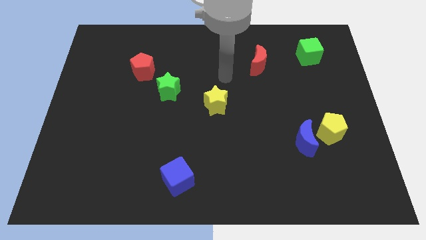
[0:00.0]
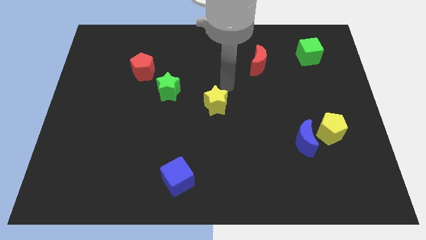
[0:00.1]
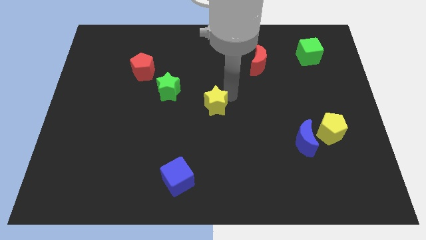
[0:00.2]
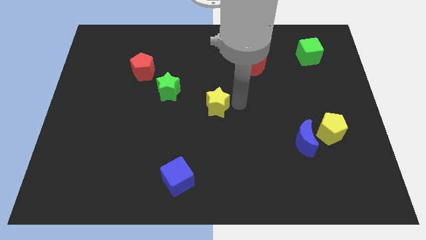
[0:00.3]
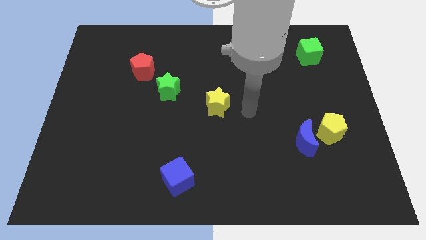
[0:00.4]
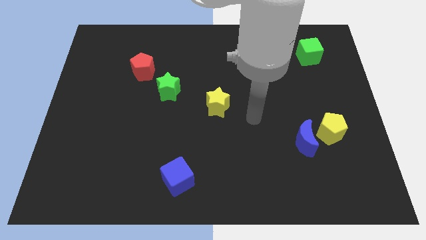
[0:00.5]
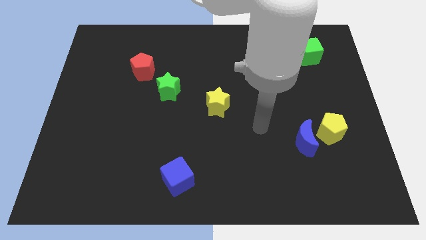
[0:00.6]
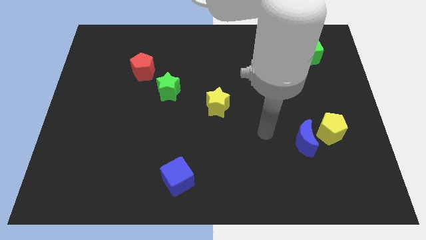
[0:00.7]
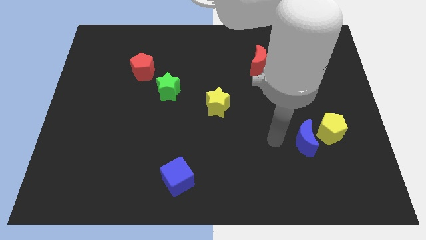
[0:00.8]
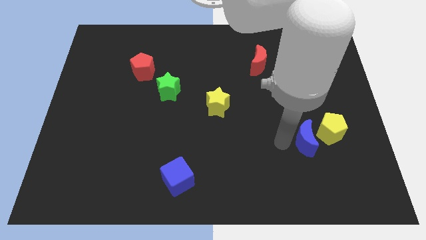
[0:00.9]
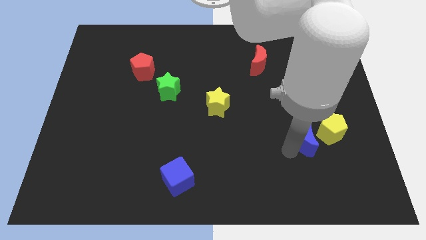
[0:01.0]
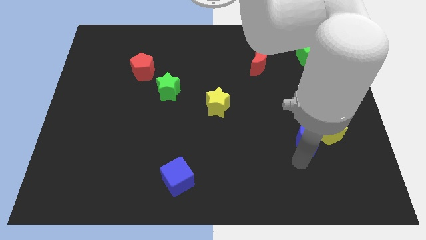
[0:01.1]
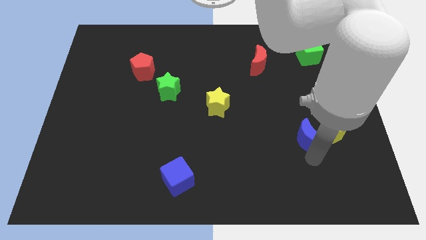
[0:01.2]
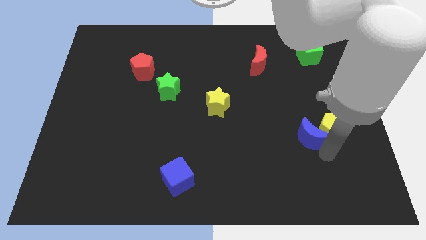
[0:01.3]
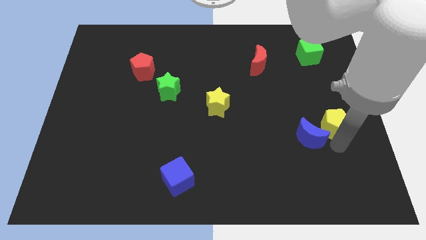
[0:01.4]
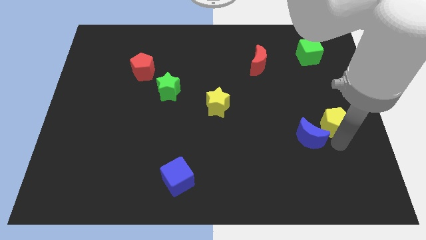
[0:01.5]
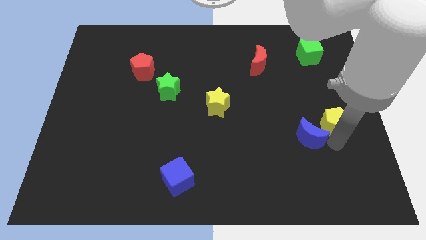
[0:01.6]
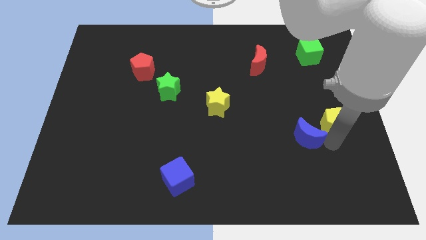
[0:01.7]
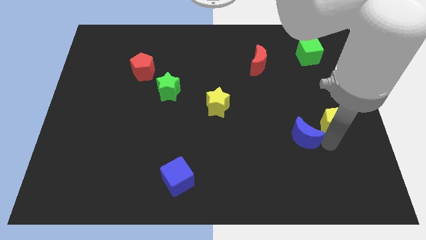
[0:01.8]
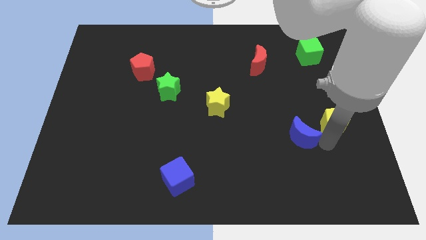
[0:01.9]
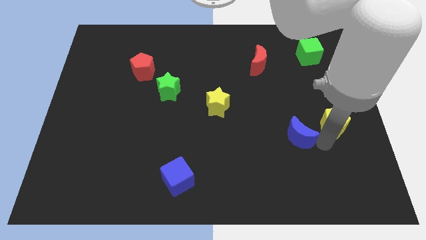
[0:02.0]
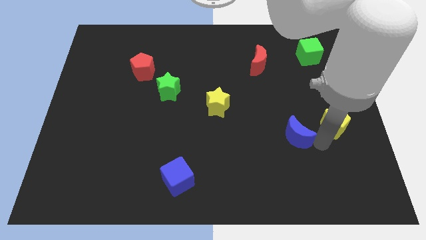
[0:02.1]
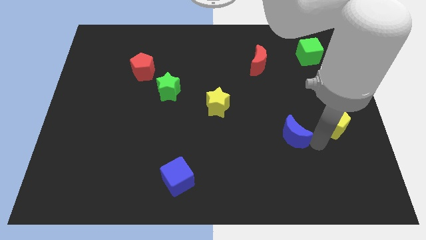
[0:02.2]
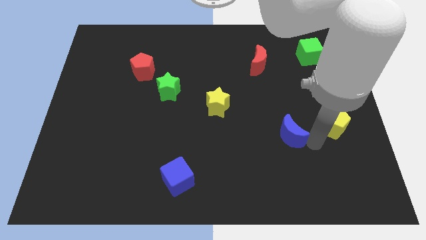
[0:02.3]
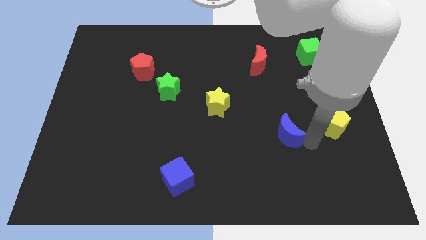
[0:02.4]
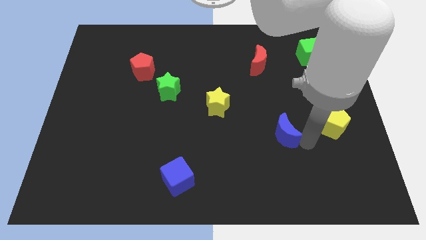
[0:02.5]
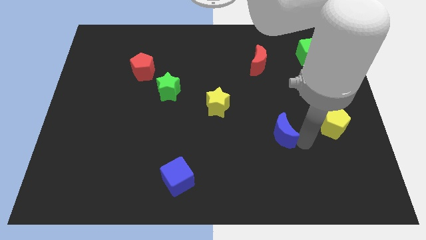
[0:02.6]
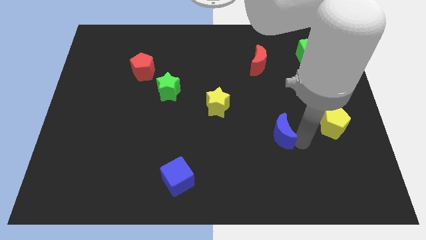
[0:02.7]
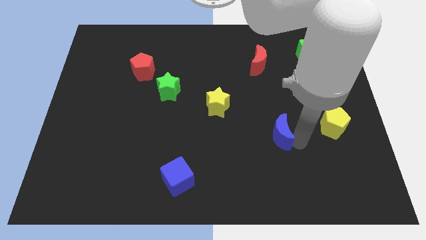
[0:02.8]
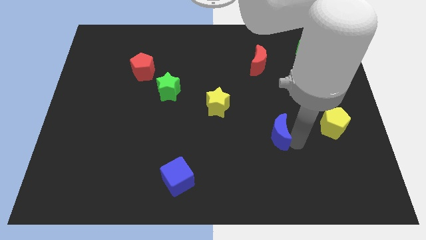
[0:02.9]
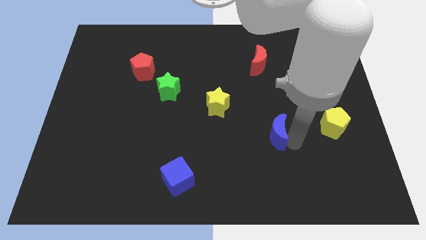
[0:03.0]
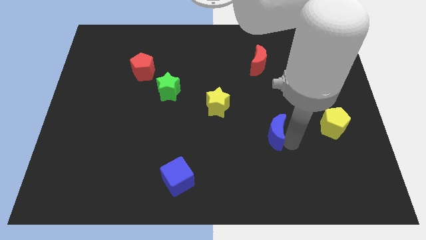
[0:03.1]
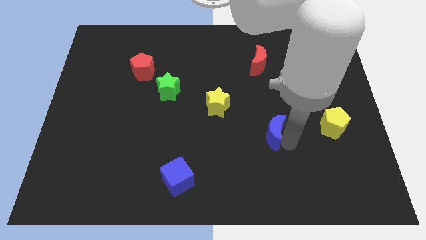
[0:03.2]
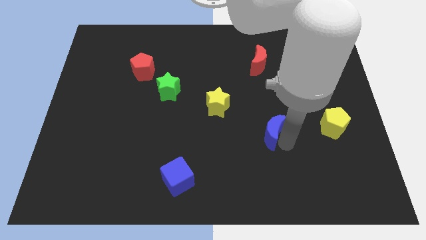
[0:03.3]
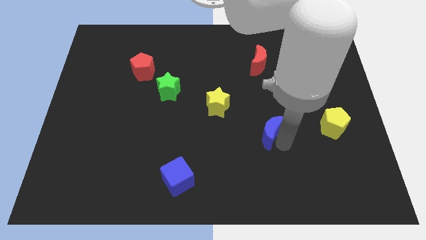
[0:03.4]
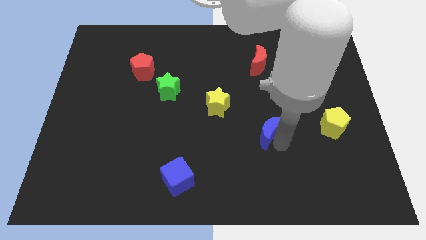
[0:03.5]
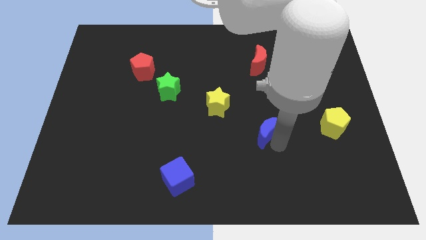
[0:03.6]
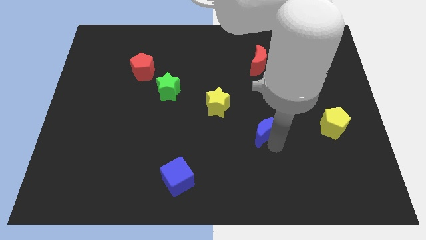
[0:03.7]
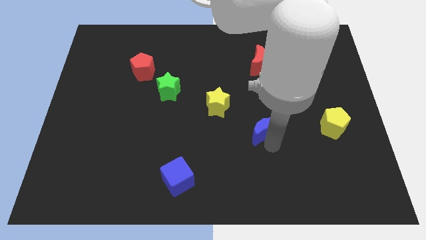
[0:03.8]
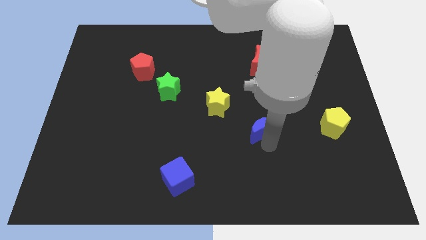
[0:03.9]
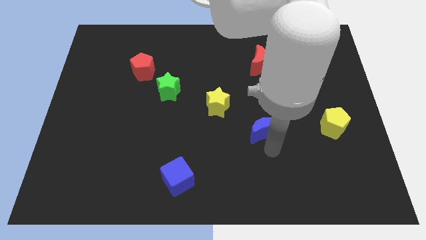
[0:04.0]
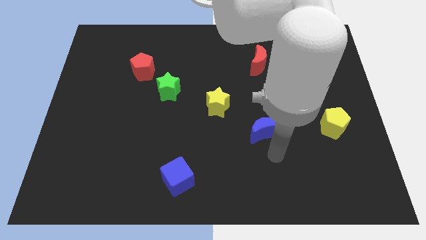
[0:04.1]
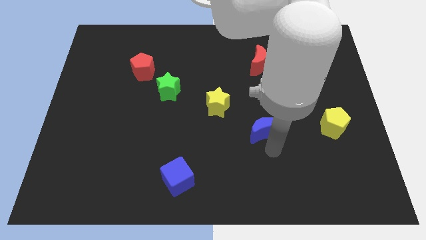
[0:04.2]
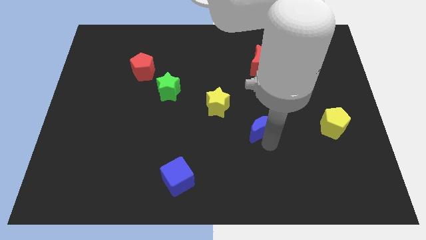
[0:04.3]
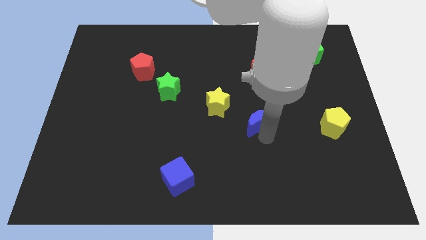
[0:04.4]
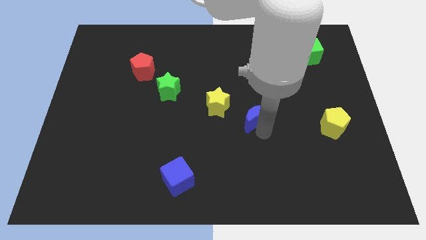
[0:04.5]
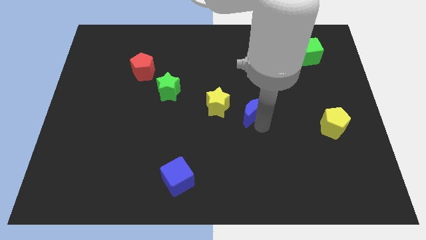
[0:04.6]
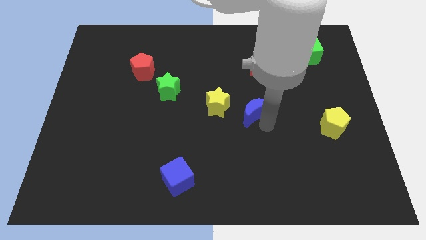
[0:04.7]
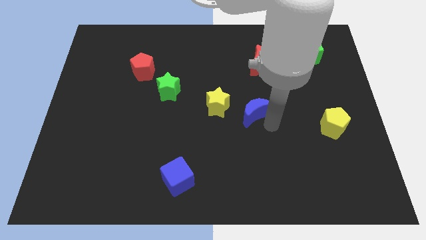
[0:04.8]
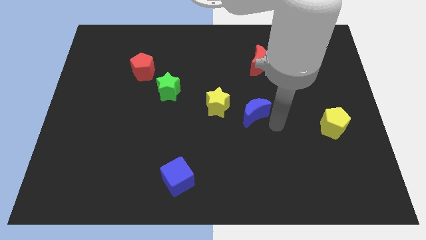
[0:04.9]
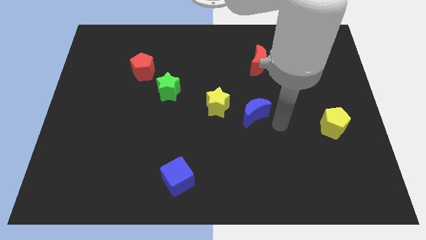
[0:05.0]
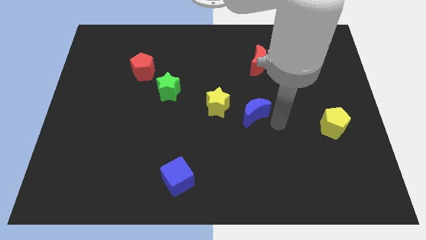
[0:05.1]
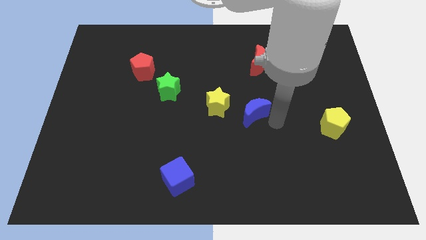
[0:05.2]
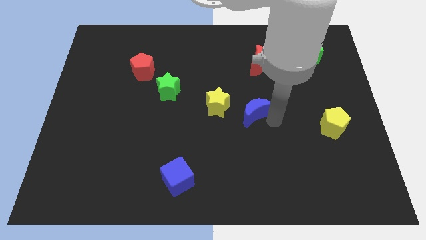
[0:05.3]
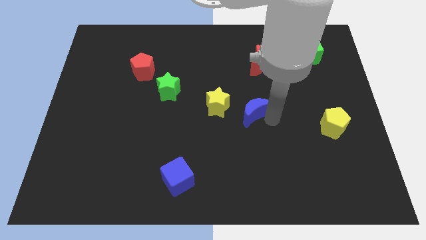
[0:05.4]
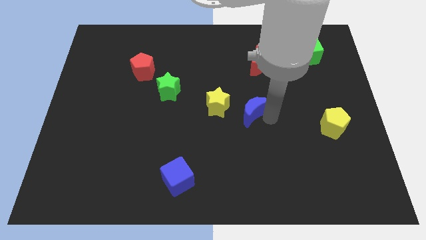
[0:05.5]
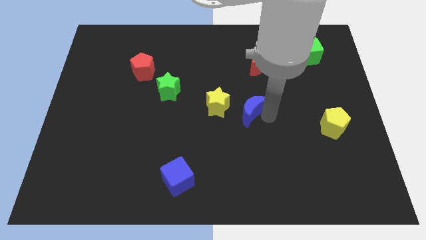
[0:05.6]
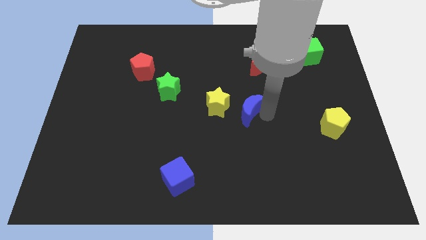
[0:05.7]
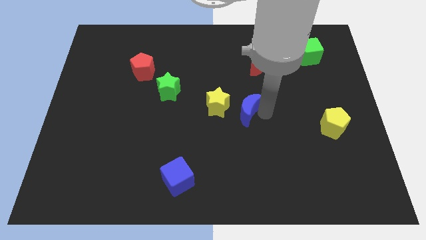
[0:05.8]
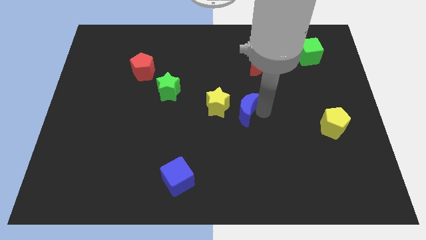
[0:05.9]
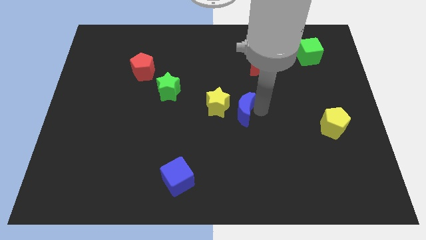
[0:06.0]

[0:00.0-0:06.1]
slide the blue moon to the yellow star

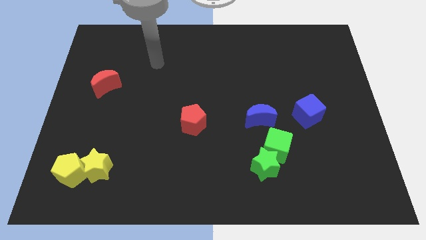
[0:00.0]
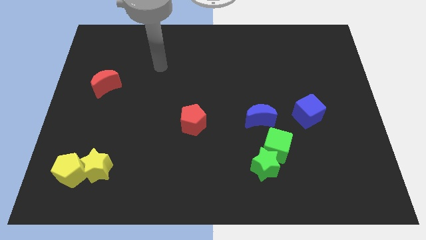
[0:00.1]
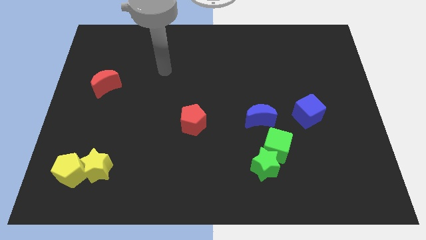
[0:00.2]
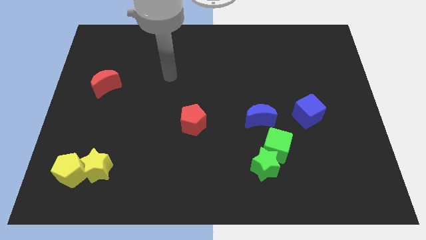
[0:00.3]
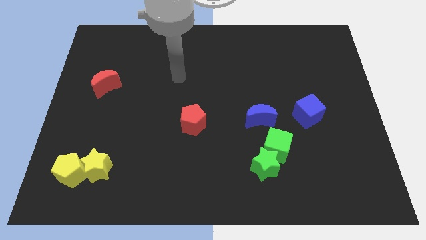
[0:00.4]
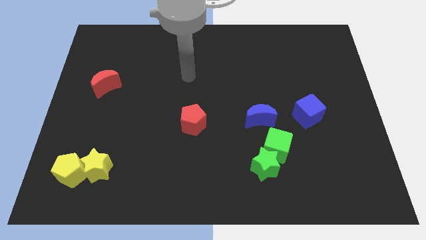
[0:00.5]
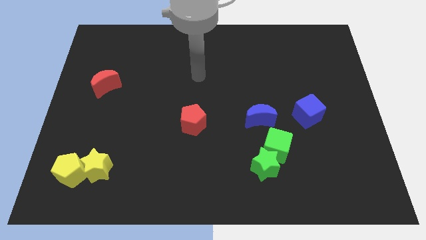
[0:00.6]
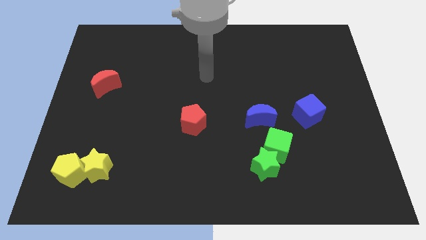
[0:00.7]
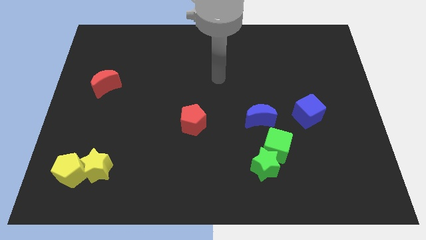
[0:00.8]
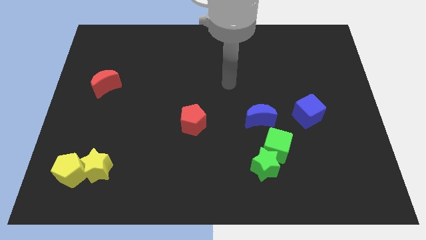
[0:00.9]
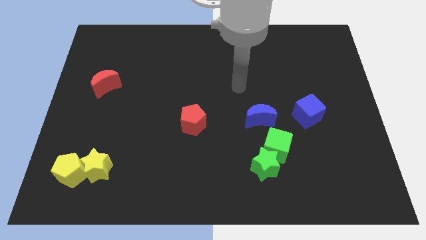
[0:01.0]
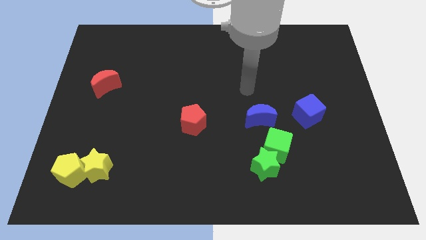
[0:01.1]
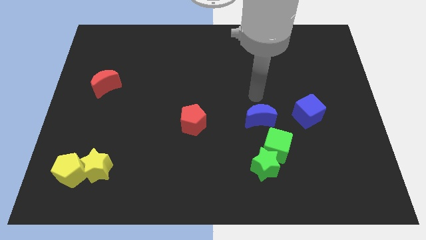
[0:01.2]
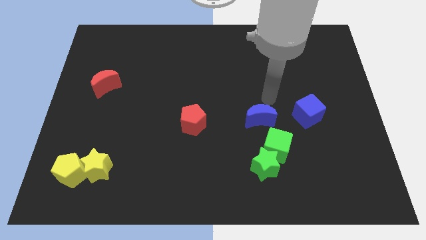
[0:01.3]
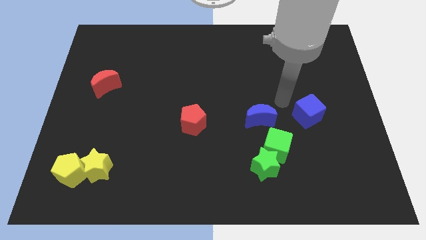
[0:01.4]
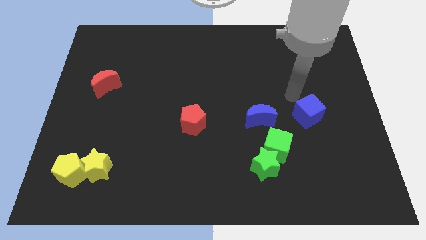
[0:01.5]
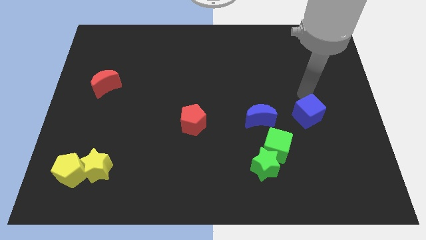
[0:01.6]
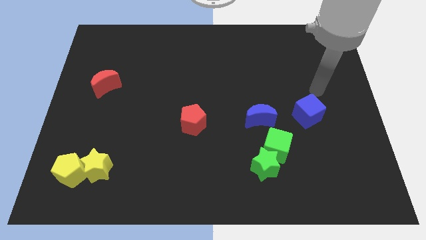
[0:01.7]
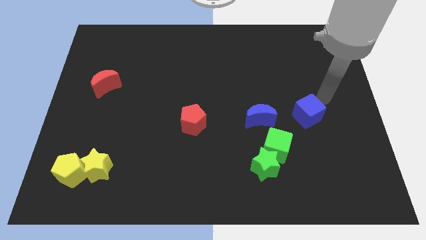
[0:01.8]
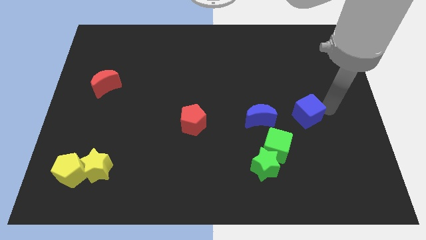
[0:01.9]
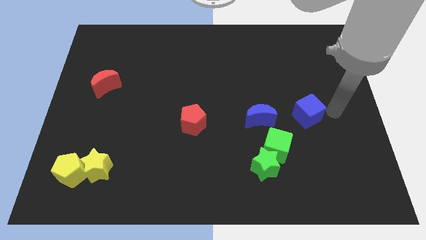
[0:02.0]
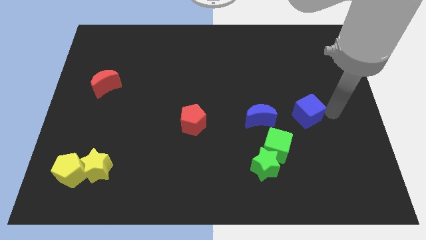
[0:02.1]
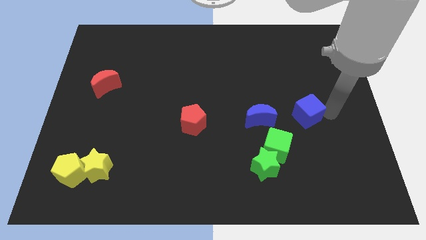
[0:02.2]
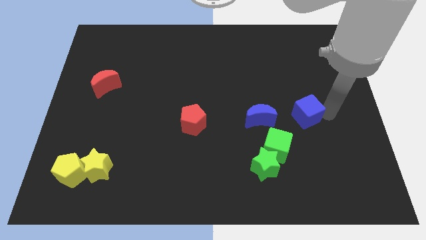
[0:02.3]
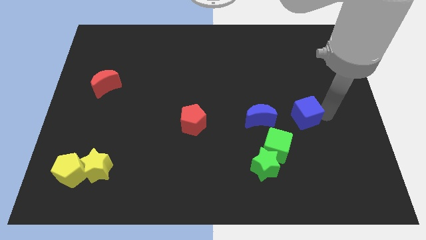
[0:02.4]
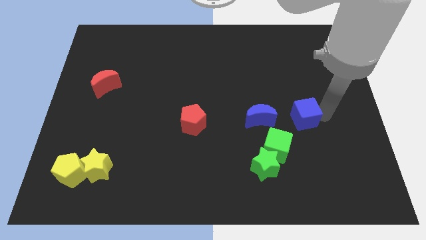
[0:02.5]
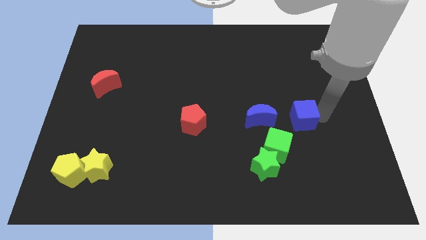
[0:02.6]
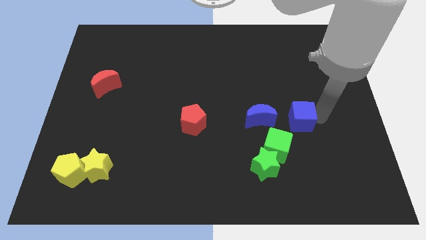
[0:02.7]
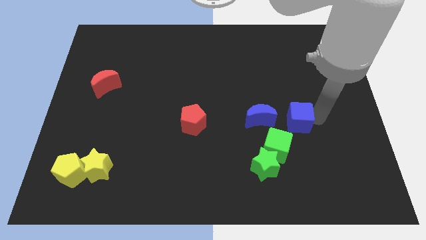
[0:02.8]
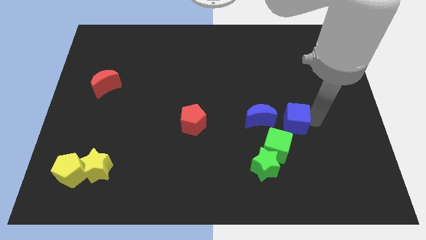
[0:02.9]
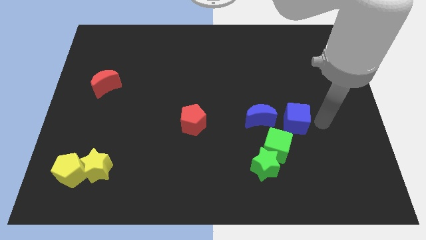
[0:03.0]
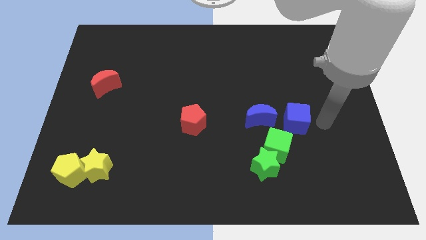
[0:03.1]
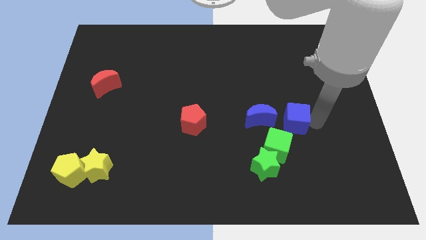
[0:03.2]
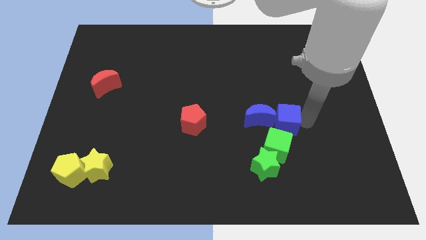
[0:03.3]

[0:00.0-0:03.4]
push the blue cube close to the blue moon
